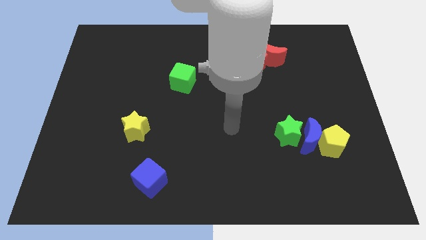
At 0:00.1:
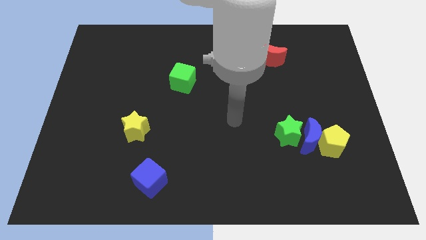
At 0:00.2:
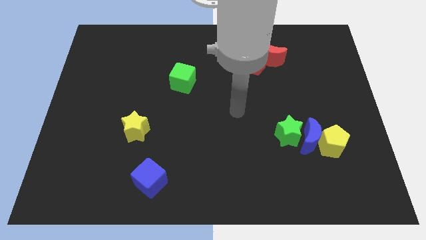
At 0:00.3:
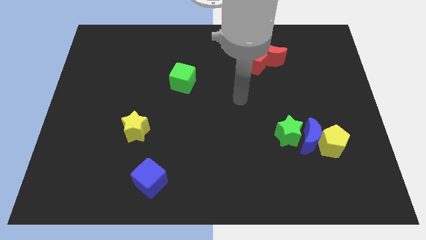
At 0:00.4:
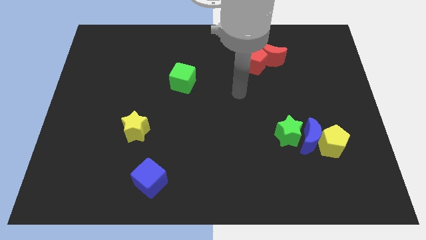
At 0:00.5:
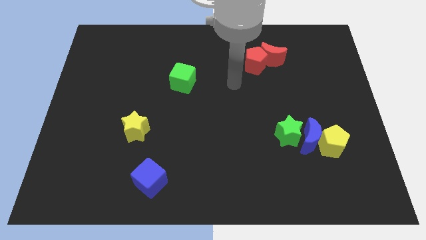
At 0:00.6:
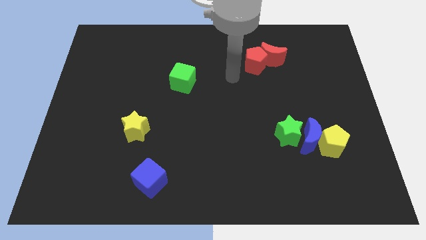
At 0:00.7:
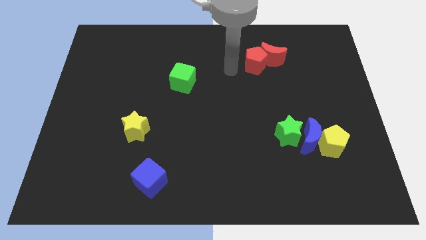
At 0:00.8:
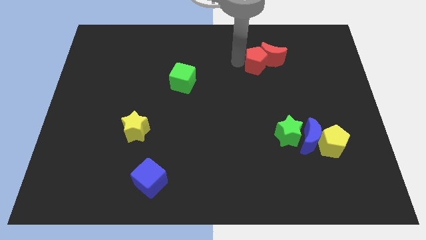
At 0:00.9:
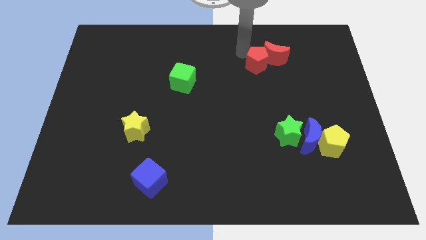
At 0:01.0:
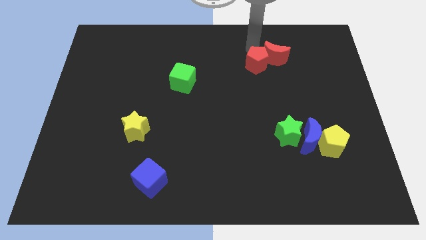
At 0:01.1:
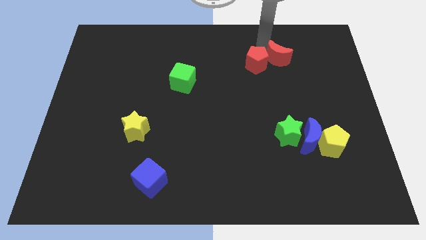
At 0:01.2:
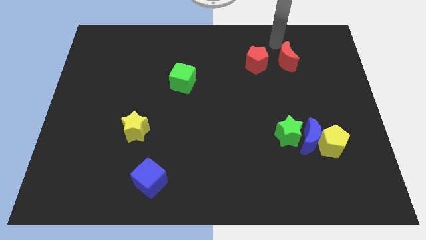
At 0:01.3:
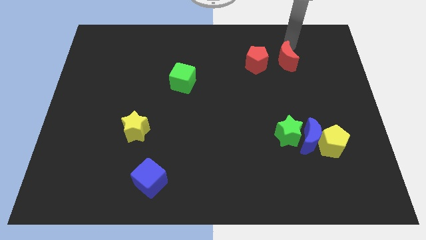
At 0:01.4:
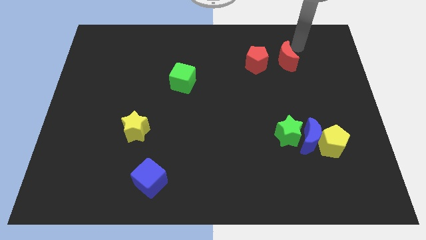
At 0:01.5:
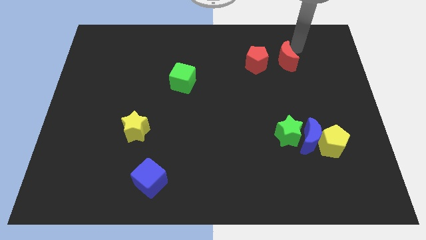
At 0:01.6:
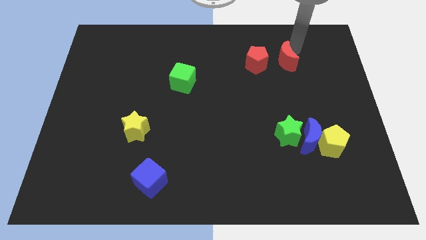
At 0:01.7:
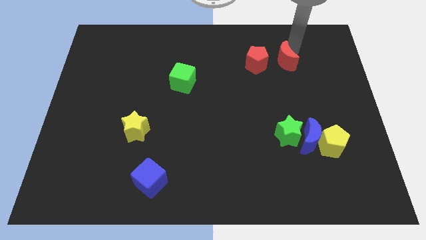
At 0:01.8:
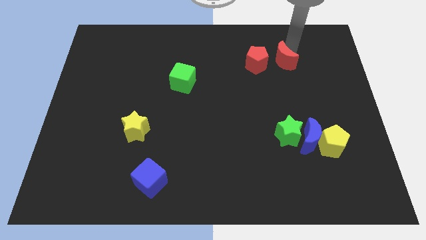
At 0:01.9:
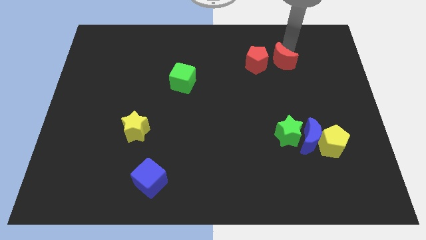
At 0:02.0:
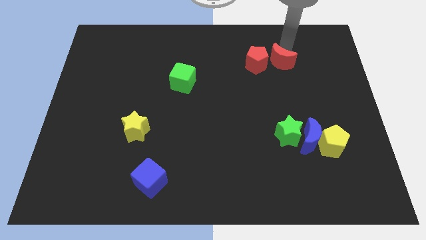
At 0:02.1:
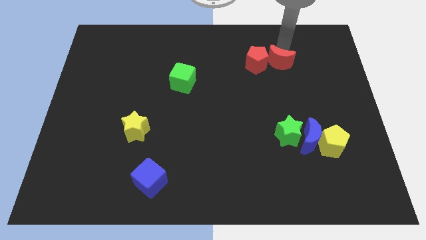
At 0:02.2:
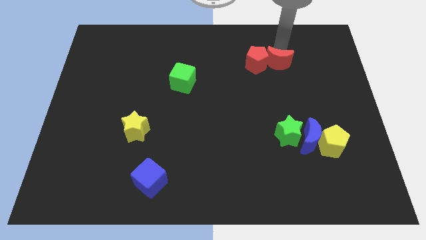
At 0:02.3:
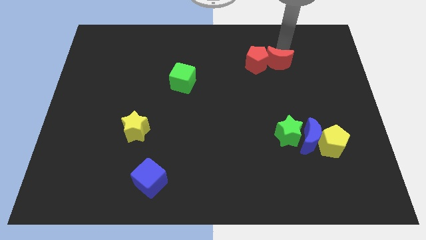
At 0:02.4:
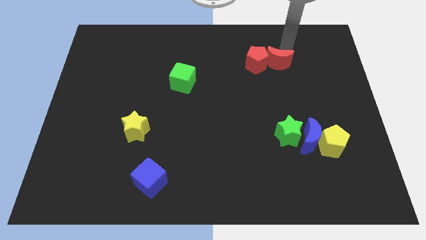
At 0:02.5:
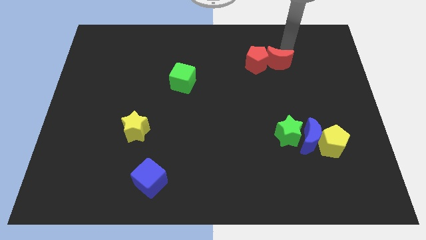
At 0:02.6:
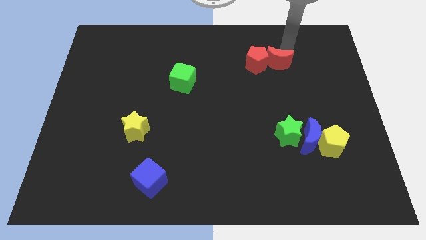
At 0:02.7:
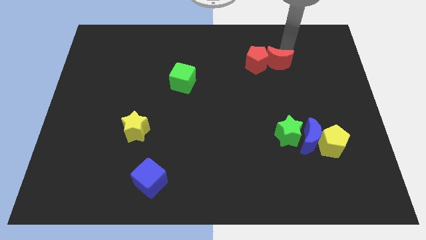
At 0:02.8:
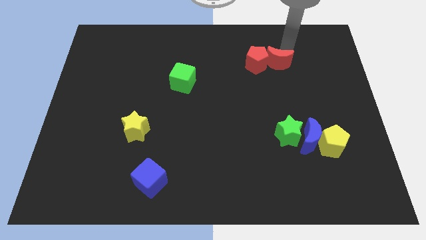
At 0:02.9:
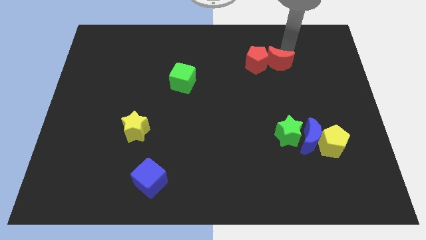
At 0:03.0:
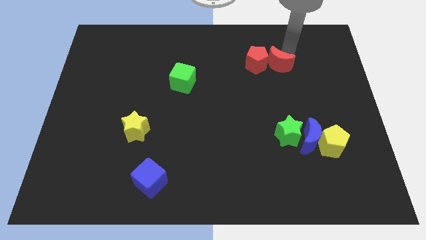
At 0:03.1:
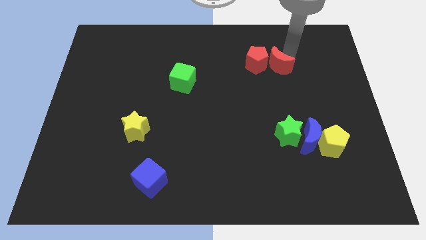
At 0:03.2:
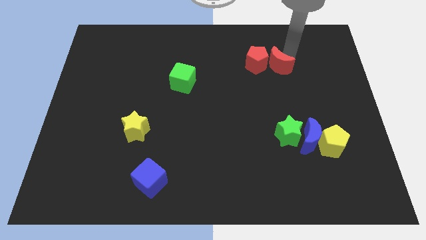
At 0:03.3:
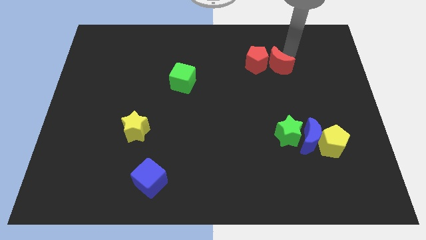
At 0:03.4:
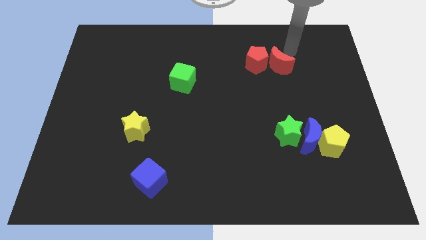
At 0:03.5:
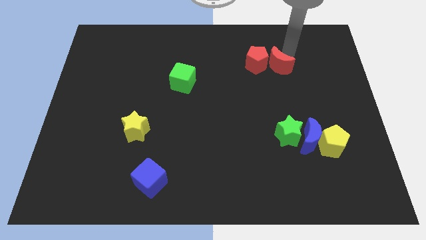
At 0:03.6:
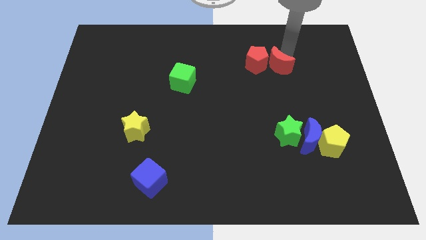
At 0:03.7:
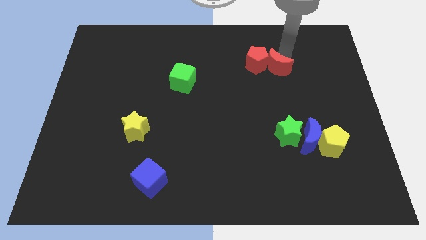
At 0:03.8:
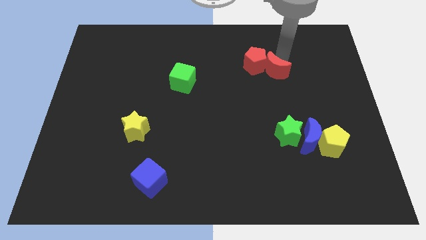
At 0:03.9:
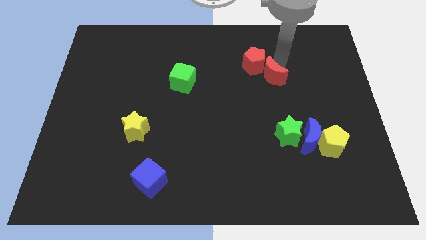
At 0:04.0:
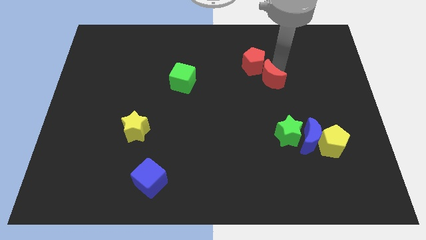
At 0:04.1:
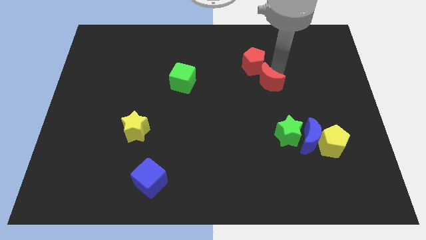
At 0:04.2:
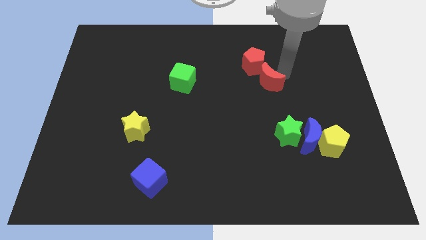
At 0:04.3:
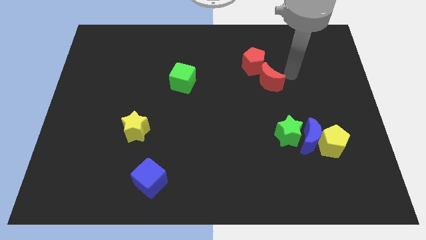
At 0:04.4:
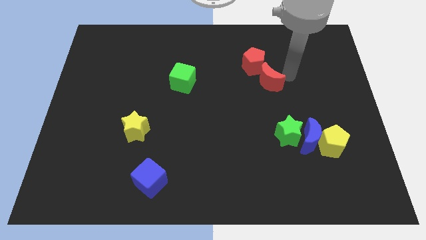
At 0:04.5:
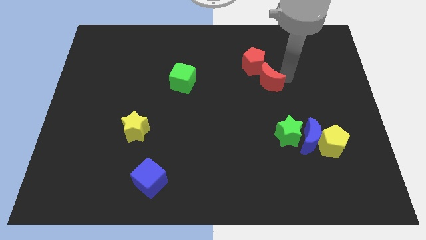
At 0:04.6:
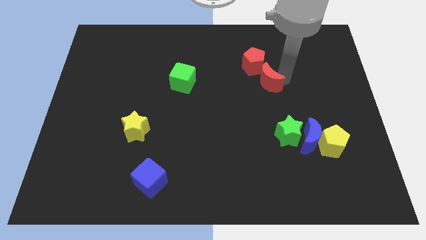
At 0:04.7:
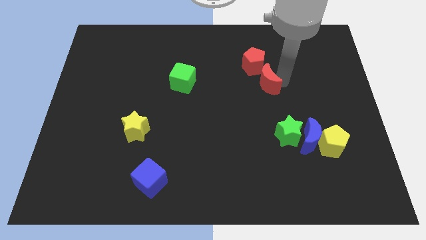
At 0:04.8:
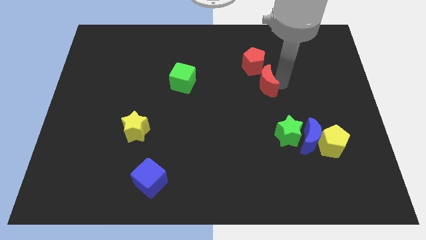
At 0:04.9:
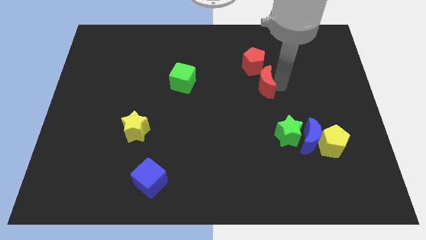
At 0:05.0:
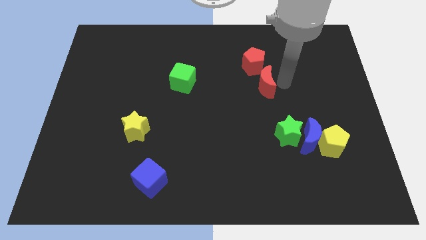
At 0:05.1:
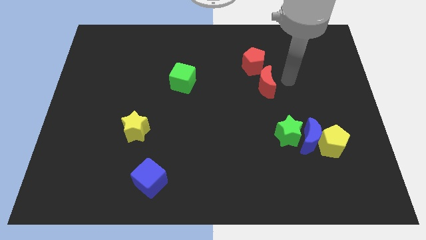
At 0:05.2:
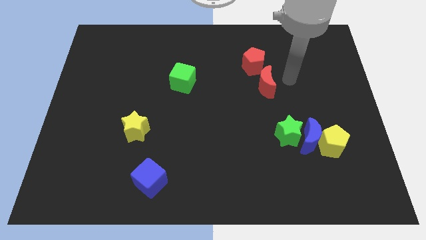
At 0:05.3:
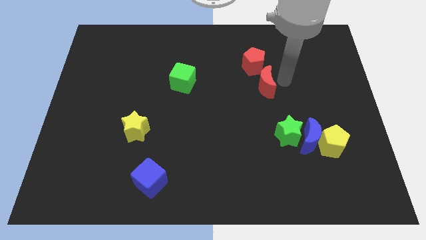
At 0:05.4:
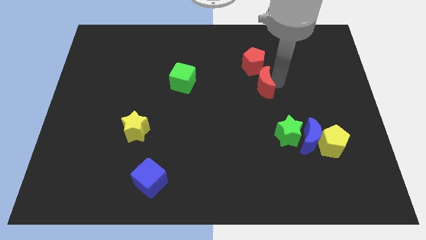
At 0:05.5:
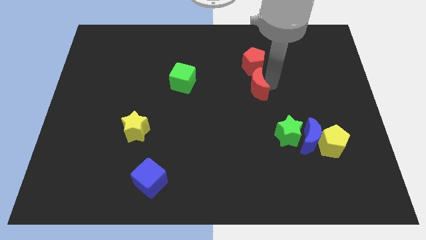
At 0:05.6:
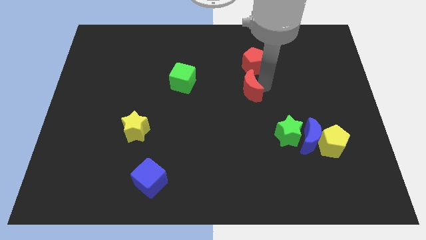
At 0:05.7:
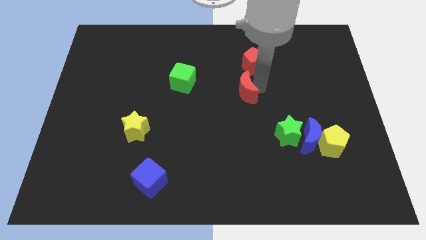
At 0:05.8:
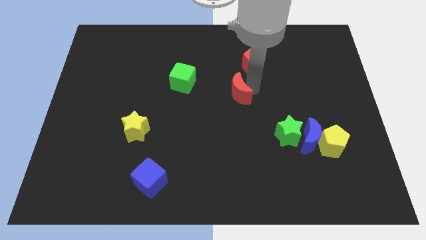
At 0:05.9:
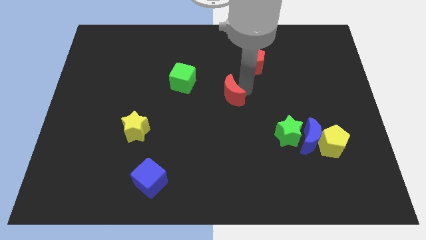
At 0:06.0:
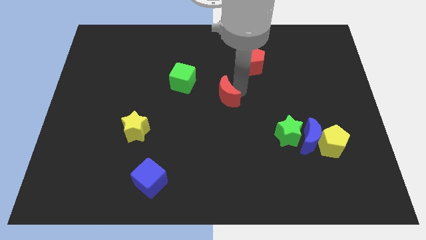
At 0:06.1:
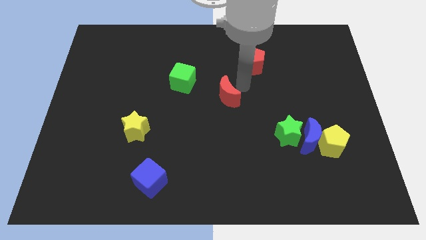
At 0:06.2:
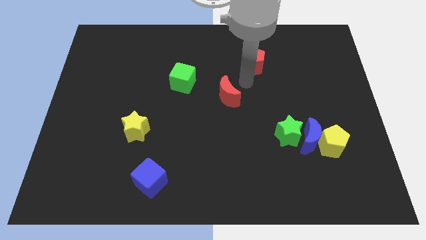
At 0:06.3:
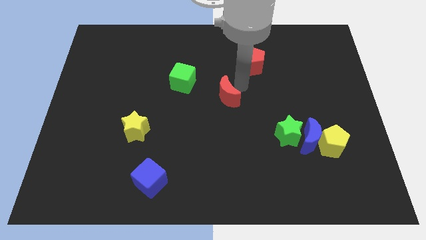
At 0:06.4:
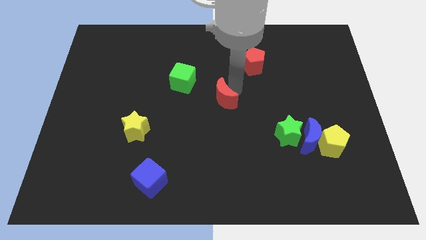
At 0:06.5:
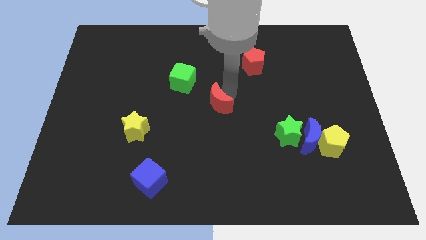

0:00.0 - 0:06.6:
slide the red moon down and then to the left

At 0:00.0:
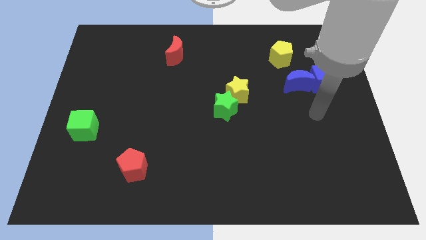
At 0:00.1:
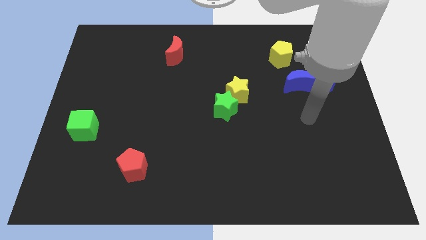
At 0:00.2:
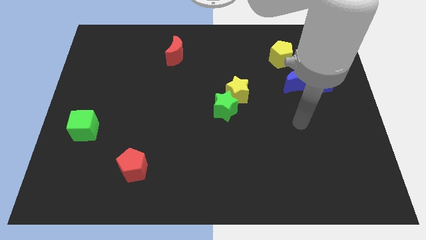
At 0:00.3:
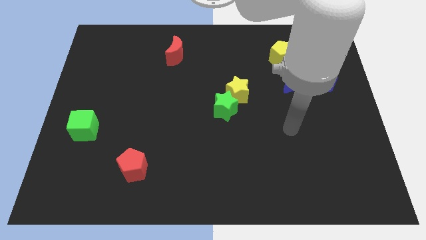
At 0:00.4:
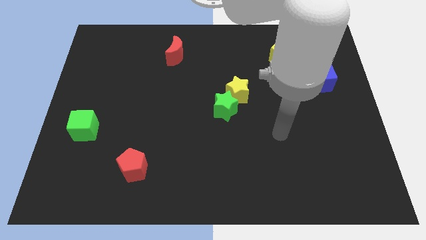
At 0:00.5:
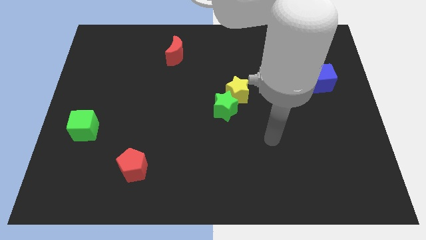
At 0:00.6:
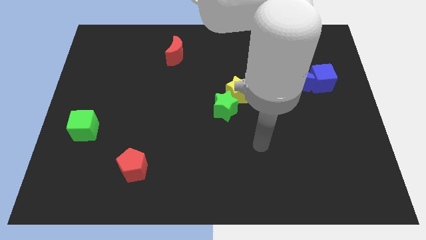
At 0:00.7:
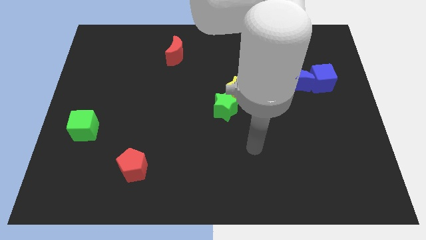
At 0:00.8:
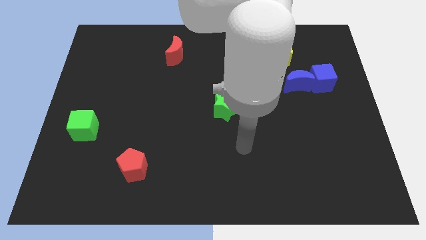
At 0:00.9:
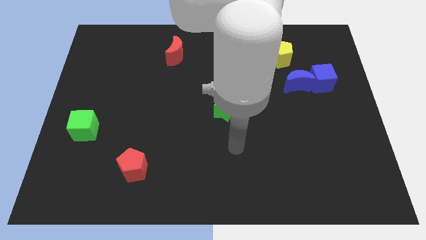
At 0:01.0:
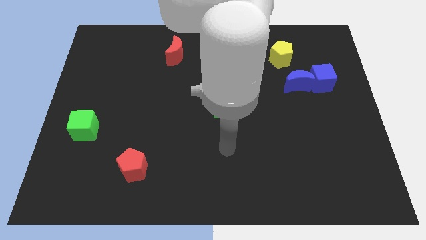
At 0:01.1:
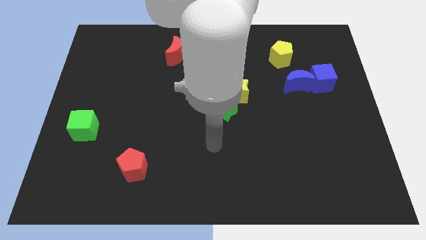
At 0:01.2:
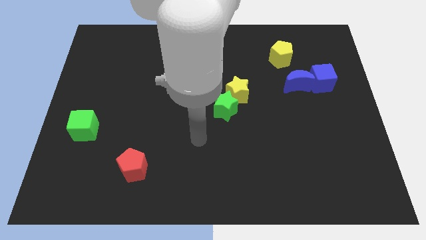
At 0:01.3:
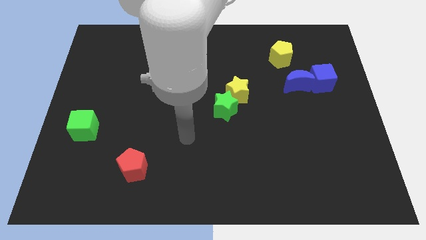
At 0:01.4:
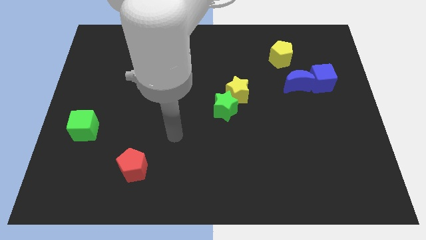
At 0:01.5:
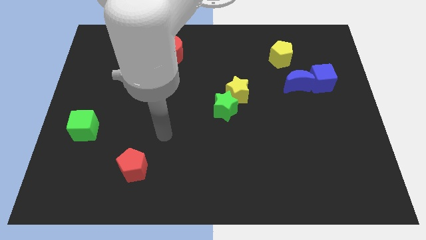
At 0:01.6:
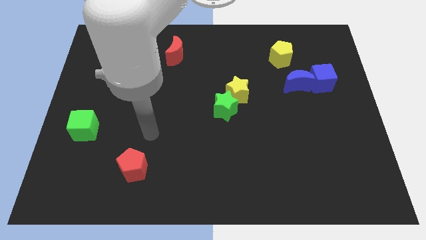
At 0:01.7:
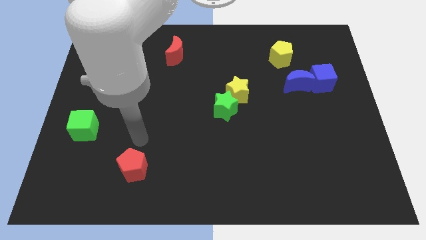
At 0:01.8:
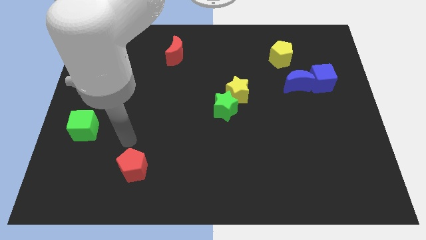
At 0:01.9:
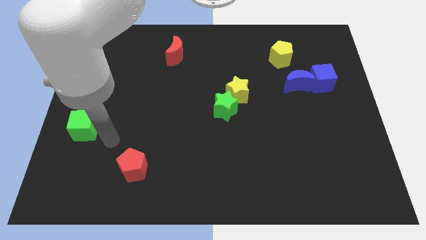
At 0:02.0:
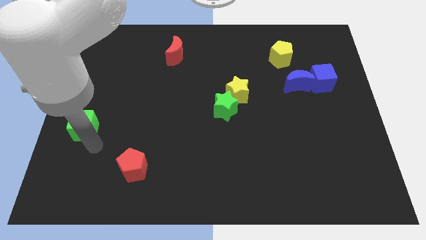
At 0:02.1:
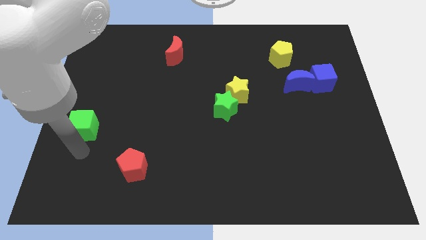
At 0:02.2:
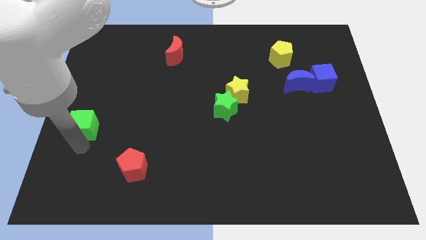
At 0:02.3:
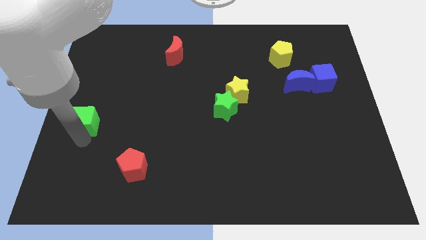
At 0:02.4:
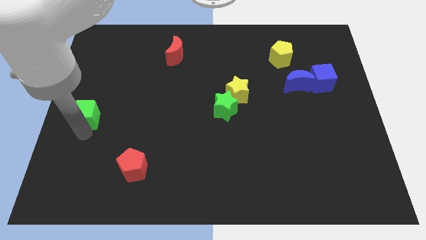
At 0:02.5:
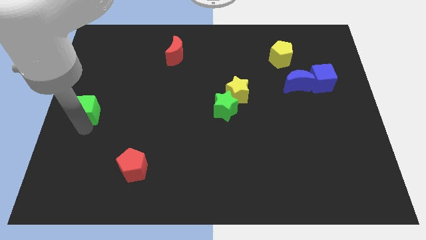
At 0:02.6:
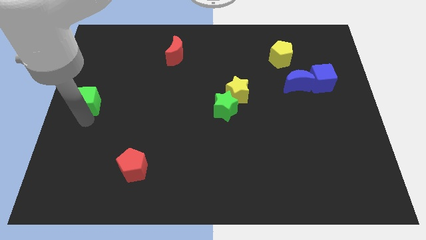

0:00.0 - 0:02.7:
slightly push the green cube upwards
